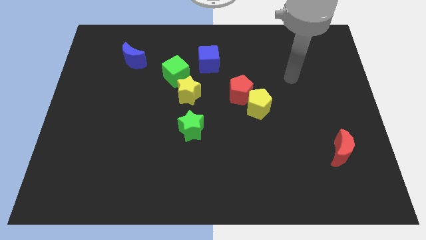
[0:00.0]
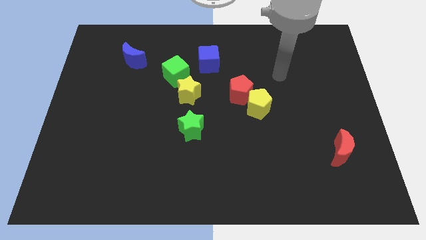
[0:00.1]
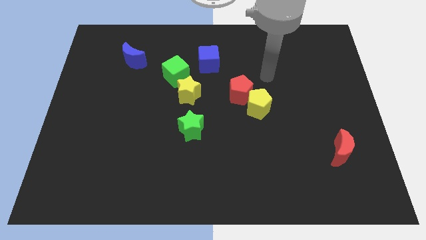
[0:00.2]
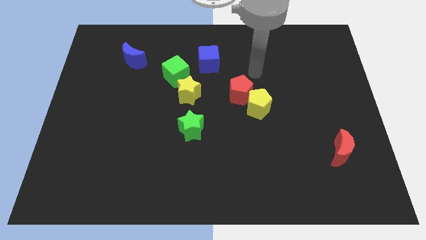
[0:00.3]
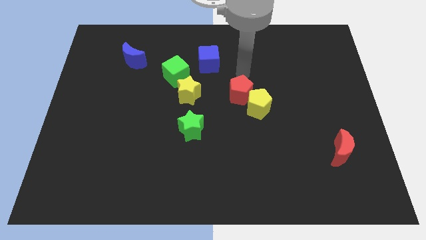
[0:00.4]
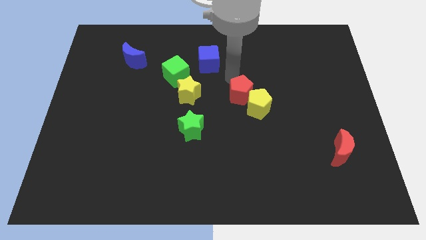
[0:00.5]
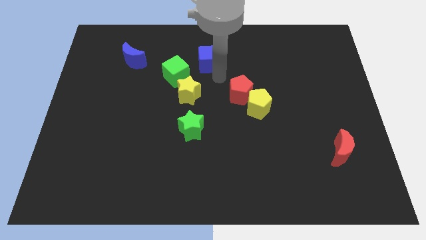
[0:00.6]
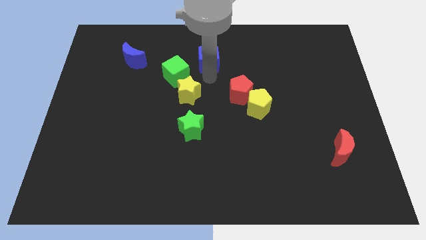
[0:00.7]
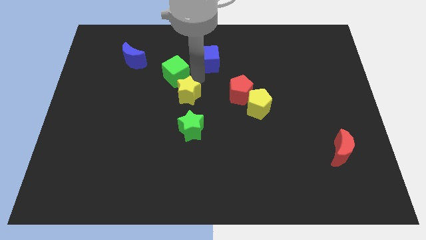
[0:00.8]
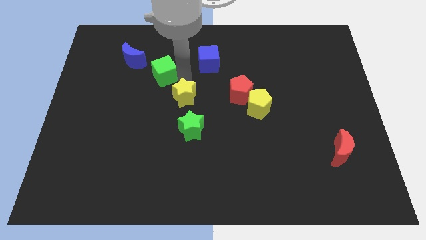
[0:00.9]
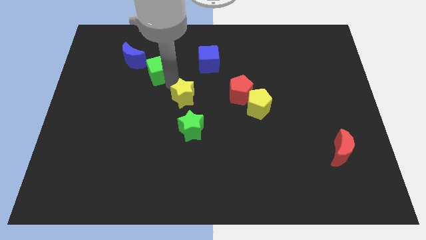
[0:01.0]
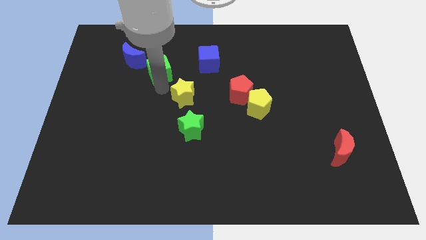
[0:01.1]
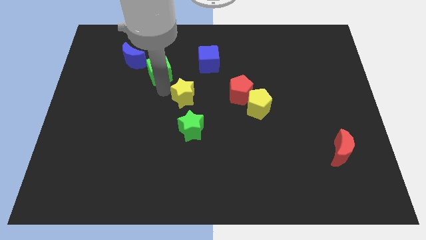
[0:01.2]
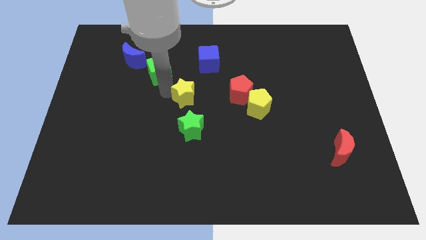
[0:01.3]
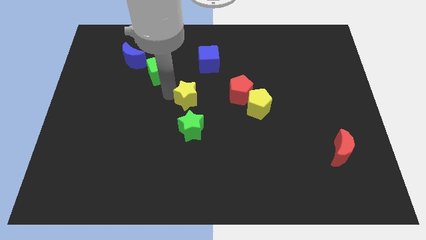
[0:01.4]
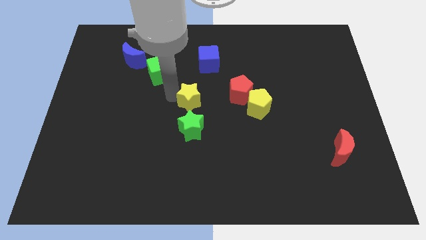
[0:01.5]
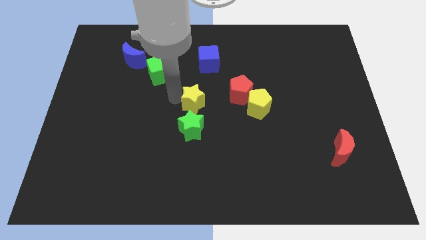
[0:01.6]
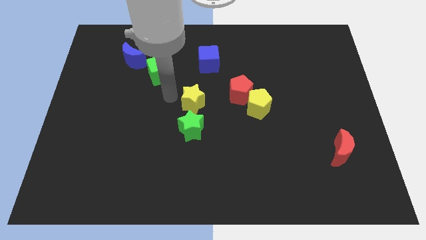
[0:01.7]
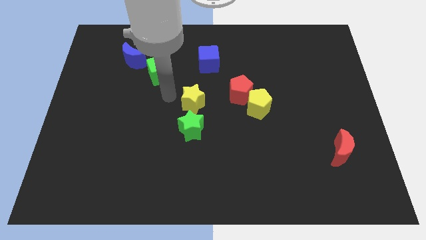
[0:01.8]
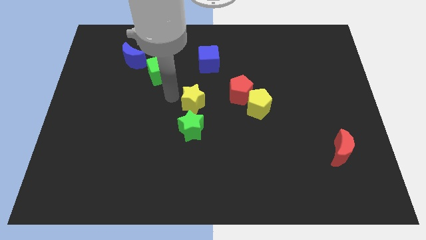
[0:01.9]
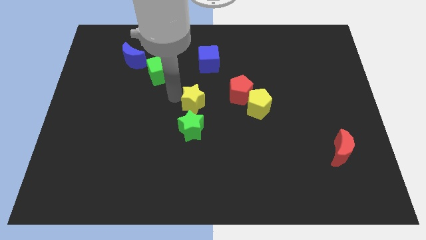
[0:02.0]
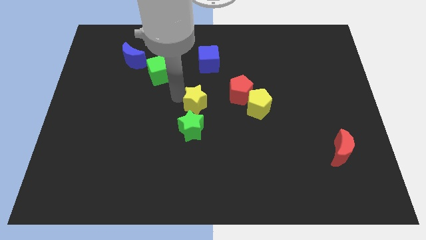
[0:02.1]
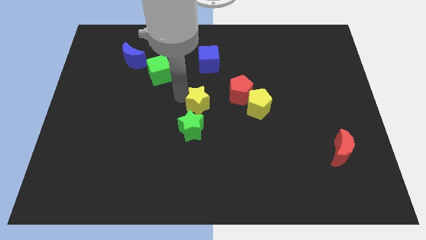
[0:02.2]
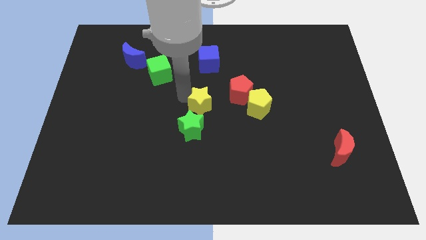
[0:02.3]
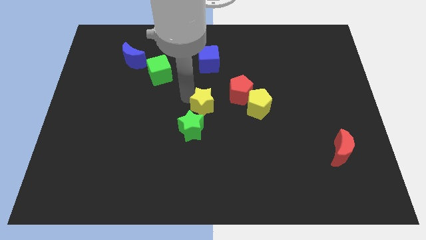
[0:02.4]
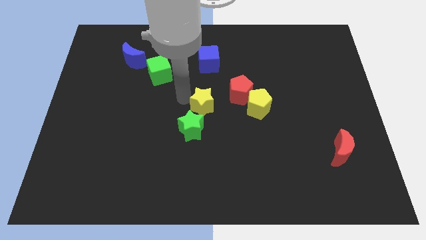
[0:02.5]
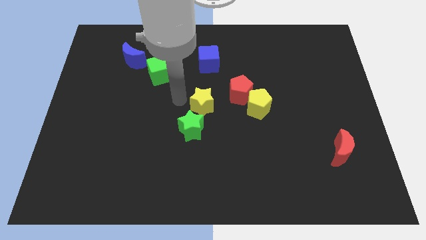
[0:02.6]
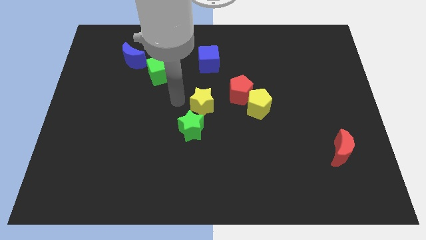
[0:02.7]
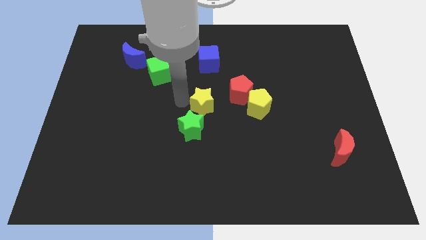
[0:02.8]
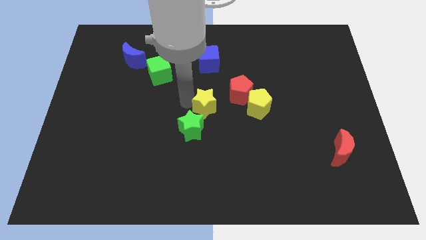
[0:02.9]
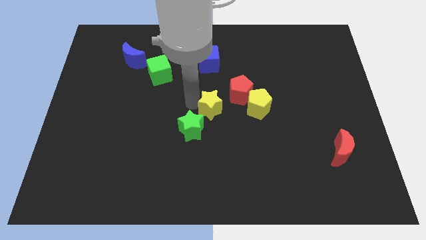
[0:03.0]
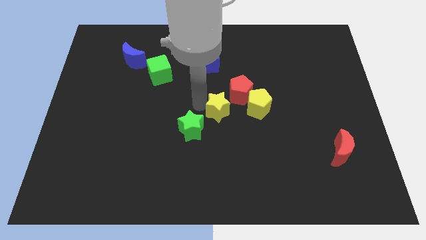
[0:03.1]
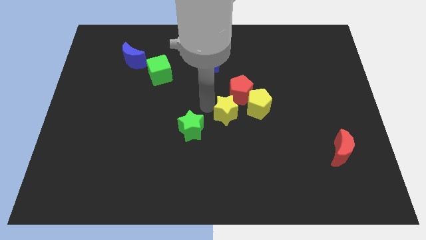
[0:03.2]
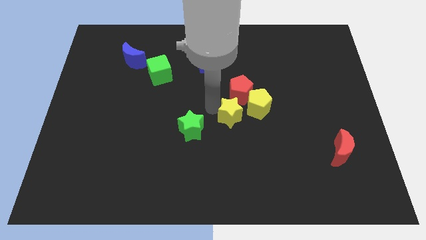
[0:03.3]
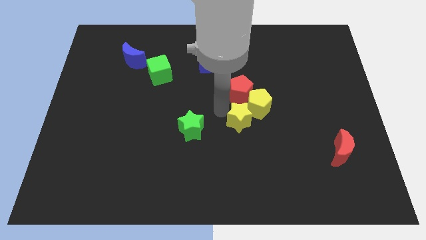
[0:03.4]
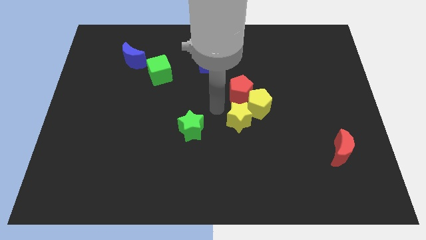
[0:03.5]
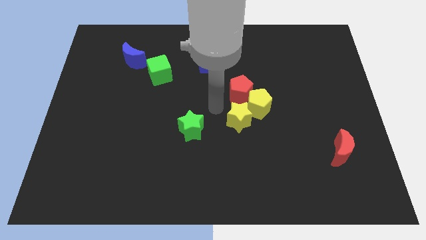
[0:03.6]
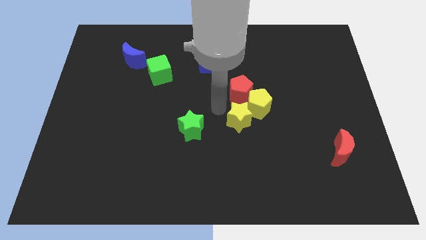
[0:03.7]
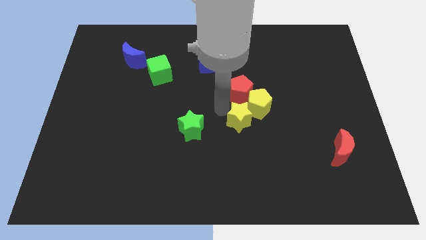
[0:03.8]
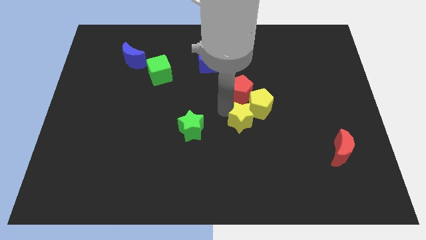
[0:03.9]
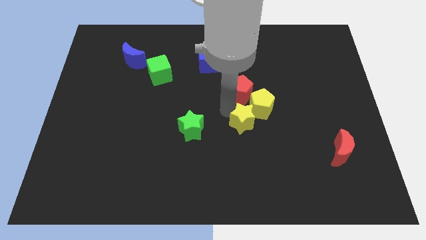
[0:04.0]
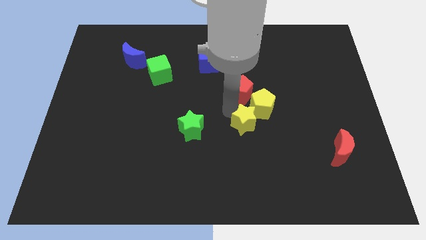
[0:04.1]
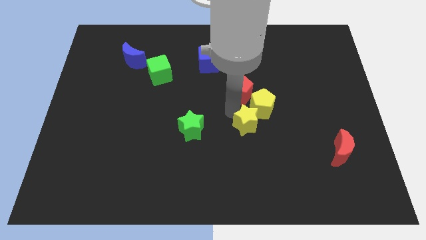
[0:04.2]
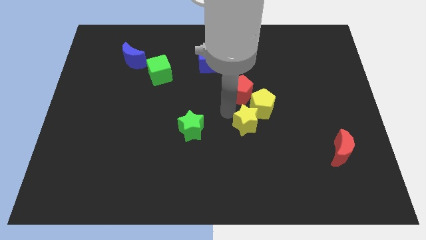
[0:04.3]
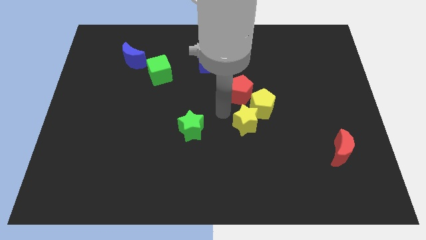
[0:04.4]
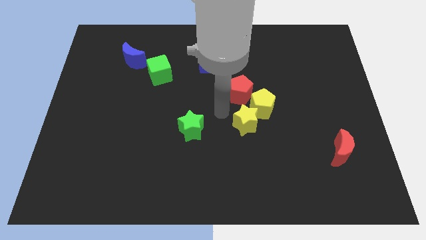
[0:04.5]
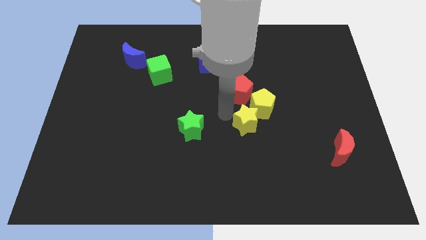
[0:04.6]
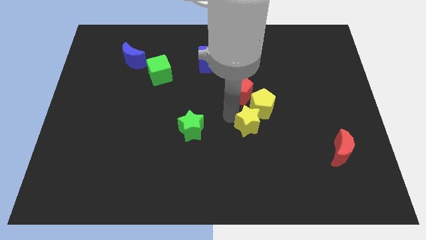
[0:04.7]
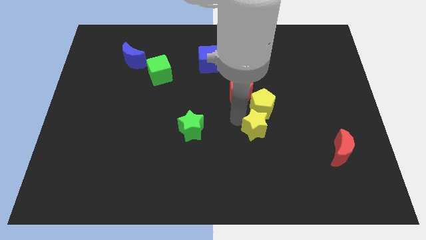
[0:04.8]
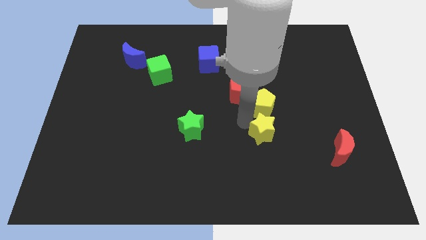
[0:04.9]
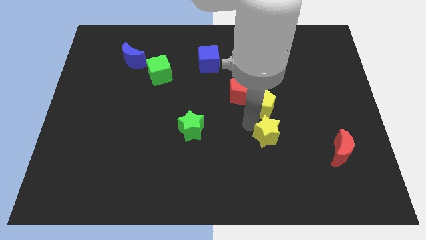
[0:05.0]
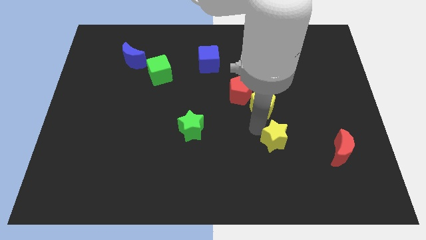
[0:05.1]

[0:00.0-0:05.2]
push the yellow star to the left of the red moon

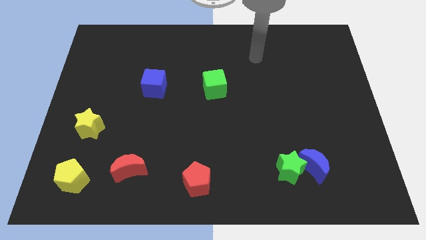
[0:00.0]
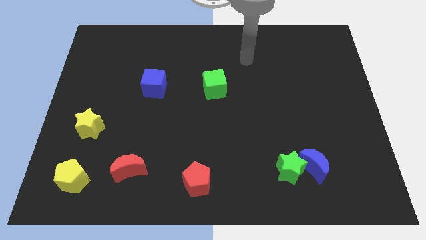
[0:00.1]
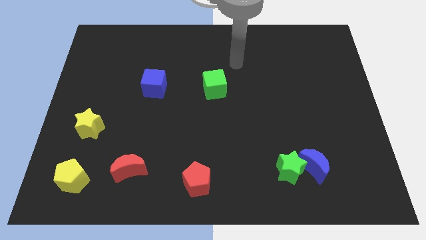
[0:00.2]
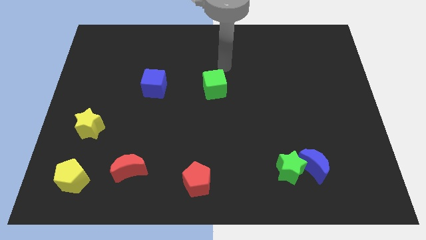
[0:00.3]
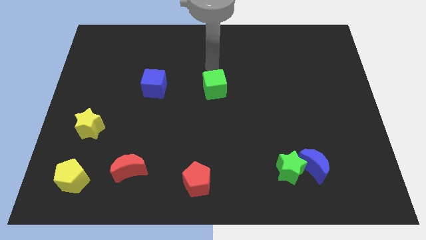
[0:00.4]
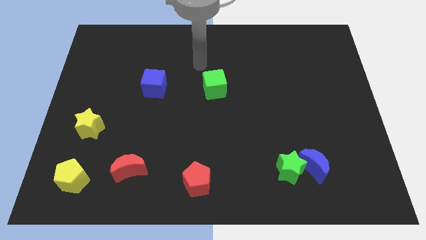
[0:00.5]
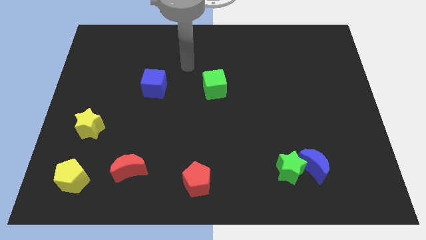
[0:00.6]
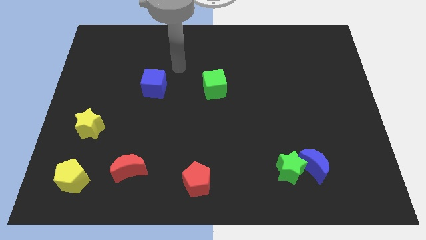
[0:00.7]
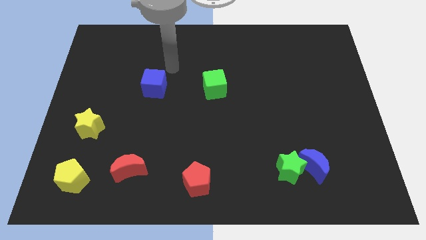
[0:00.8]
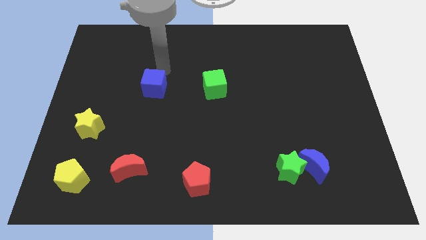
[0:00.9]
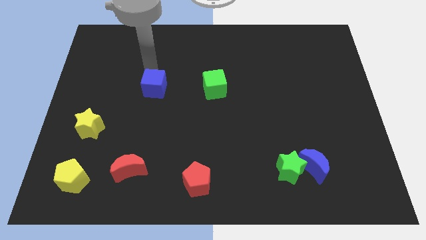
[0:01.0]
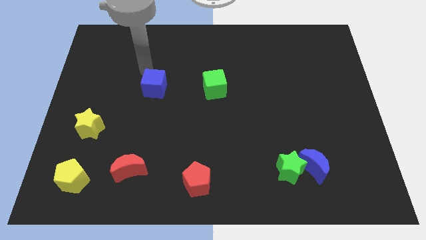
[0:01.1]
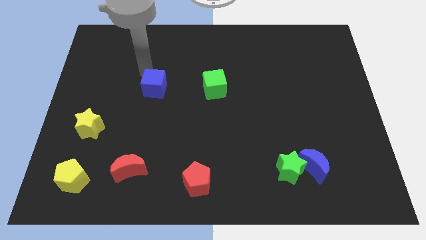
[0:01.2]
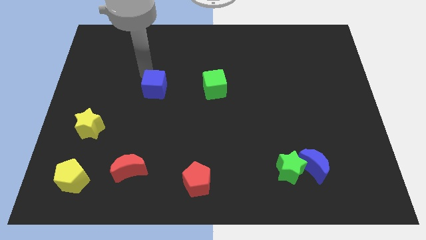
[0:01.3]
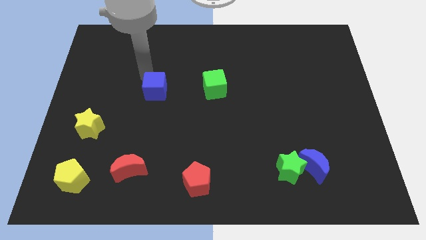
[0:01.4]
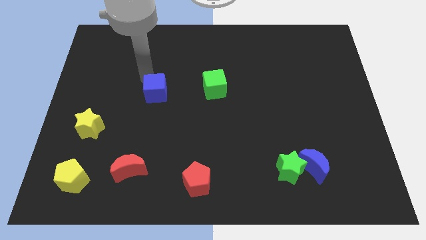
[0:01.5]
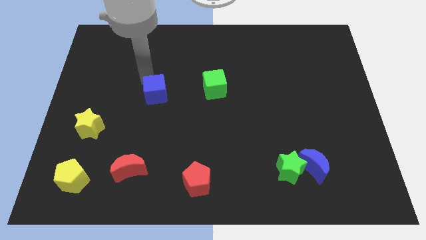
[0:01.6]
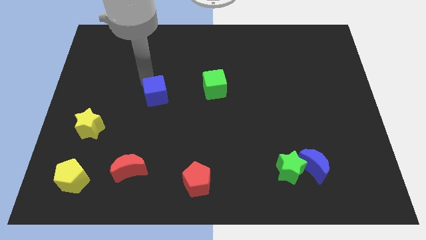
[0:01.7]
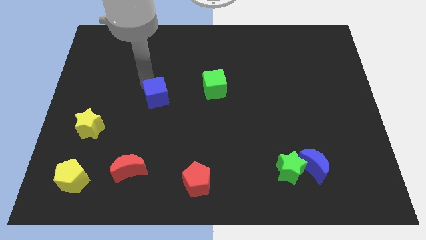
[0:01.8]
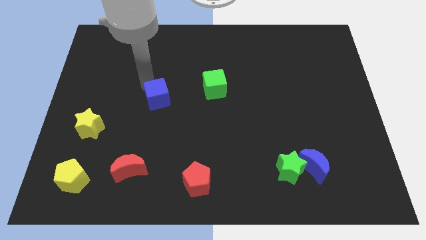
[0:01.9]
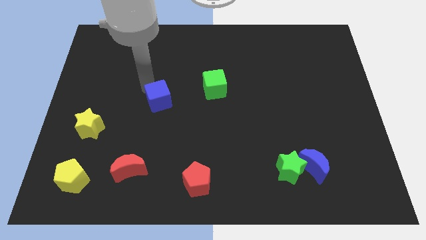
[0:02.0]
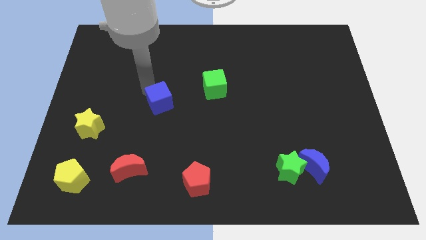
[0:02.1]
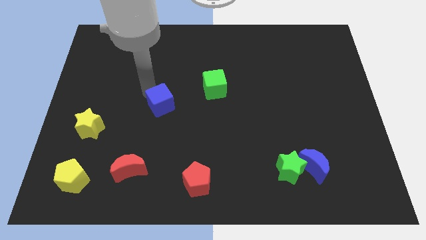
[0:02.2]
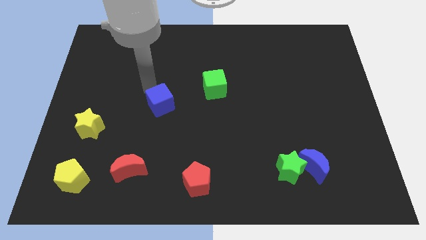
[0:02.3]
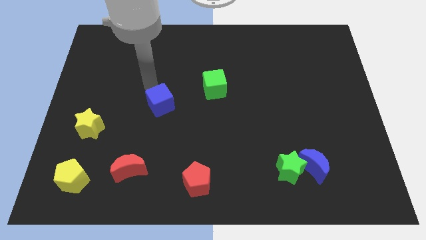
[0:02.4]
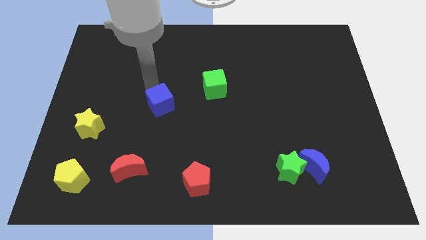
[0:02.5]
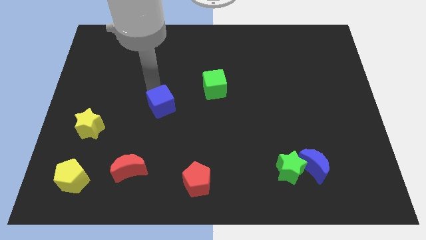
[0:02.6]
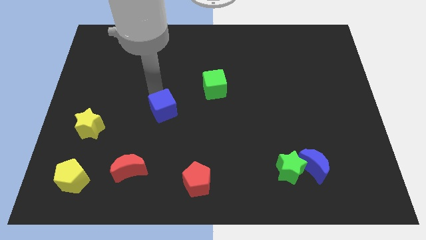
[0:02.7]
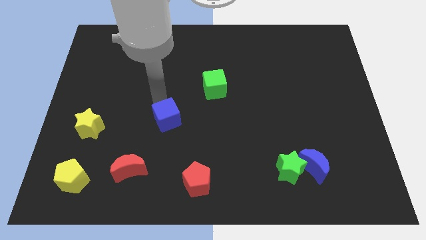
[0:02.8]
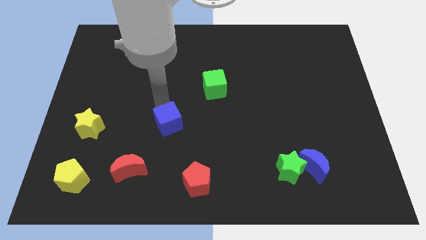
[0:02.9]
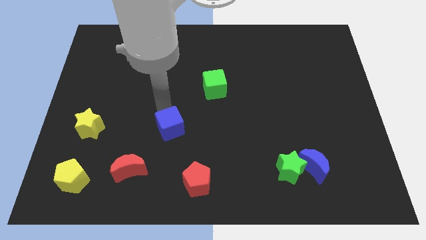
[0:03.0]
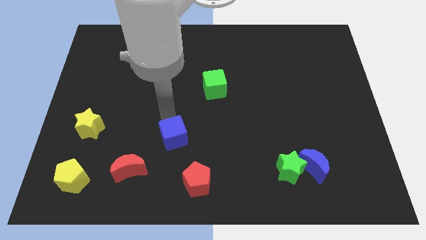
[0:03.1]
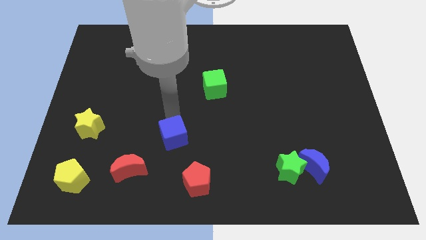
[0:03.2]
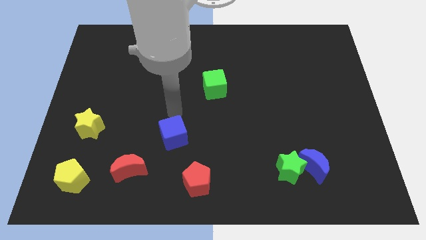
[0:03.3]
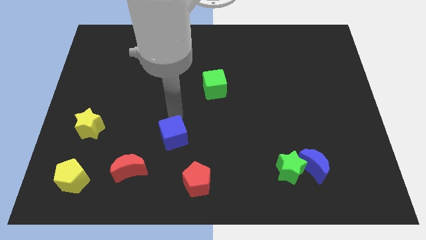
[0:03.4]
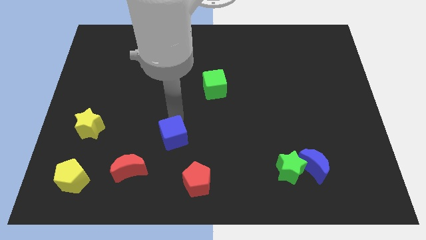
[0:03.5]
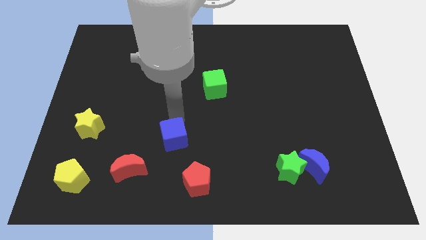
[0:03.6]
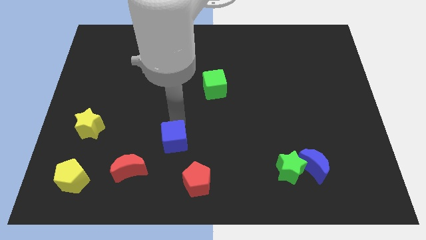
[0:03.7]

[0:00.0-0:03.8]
move the blue cube diagonally up and to the left of the red pentagon
